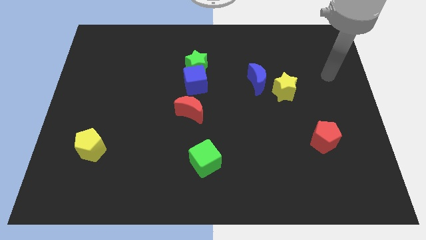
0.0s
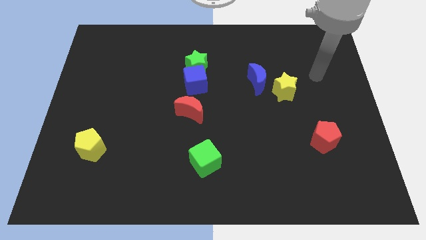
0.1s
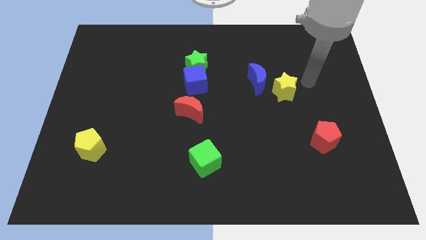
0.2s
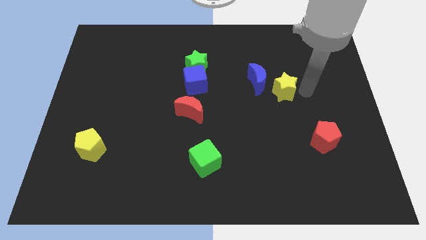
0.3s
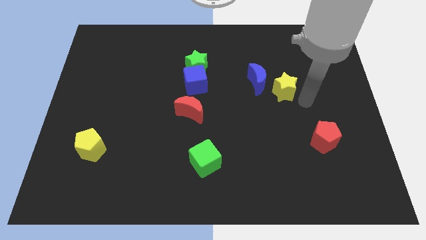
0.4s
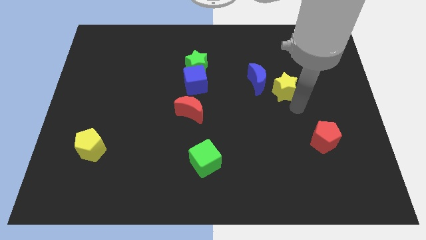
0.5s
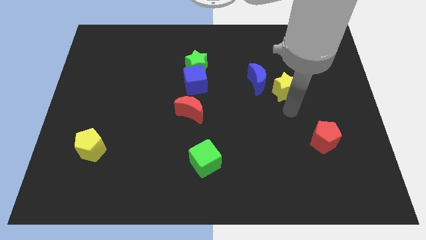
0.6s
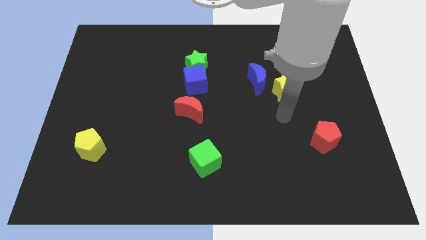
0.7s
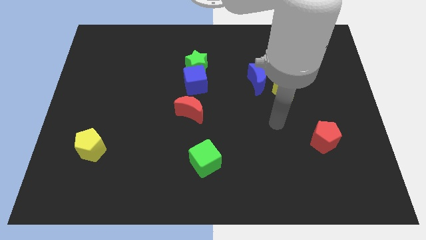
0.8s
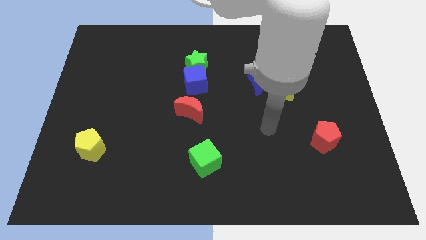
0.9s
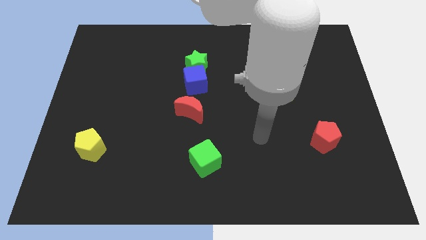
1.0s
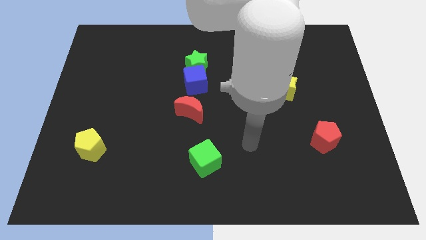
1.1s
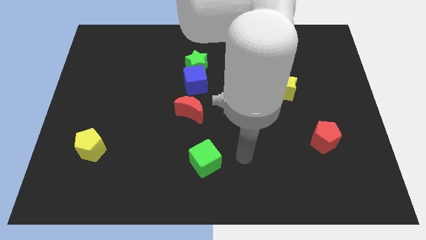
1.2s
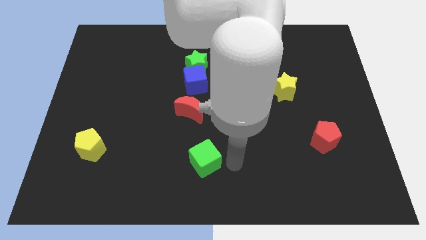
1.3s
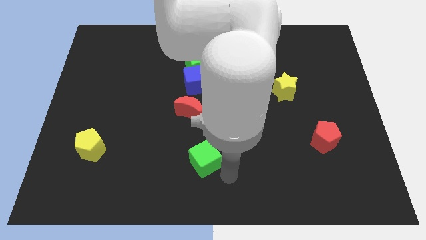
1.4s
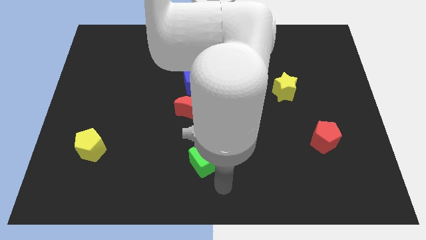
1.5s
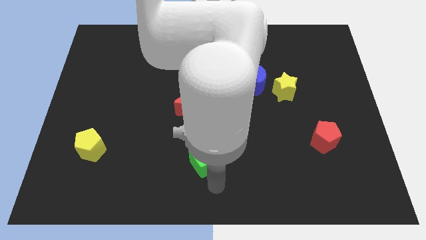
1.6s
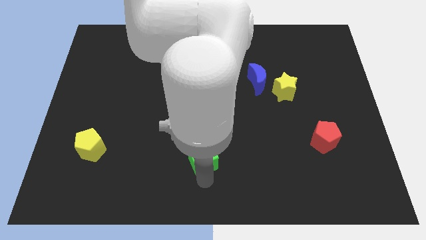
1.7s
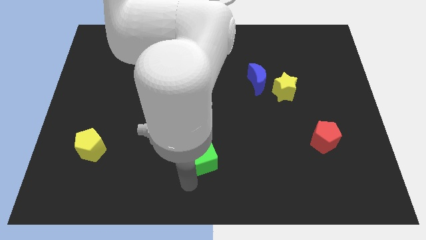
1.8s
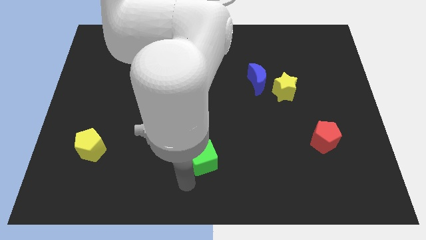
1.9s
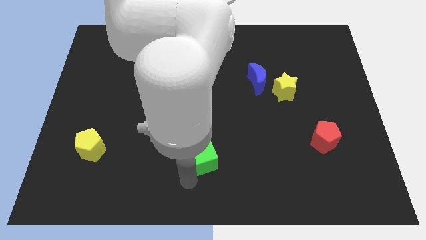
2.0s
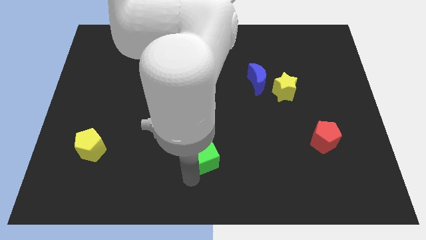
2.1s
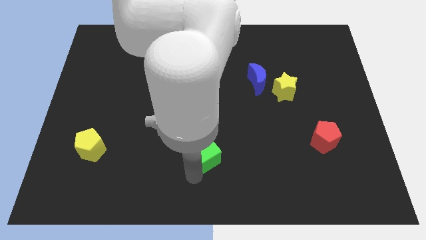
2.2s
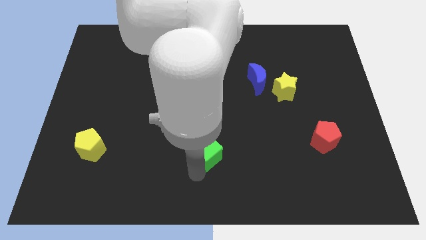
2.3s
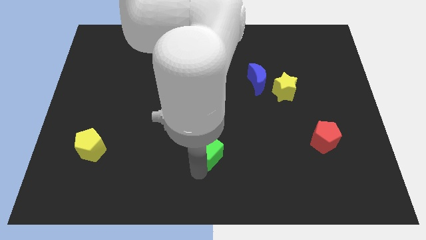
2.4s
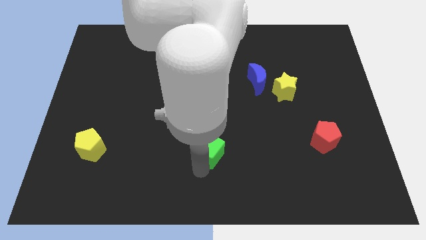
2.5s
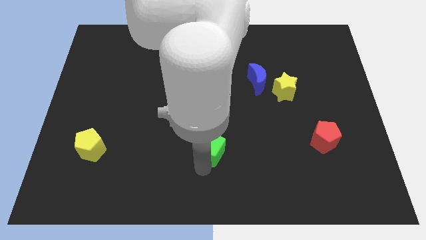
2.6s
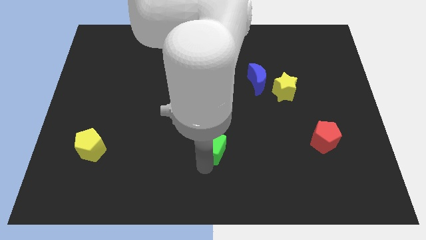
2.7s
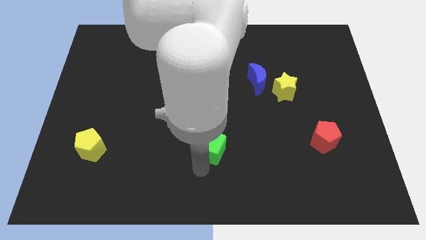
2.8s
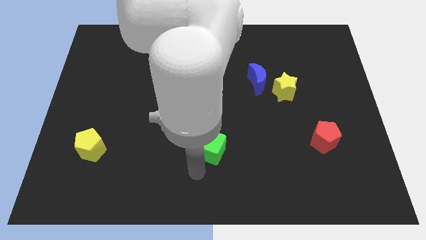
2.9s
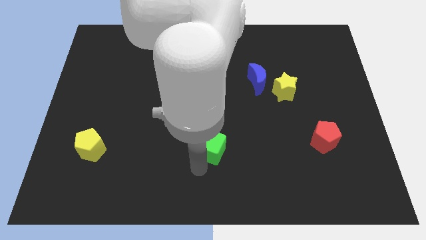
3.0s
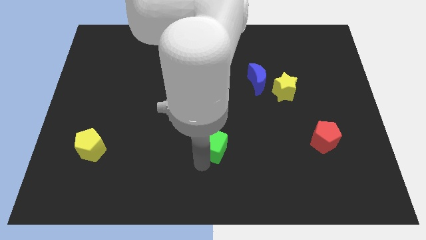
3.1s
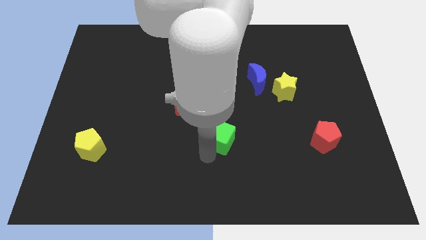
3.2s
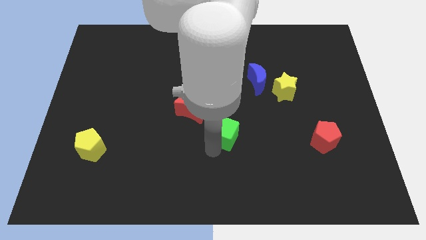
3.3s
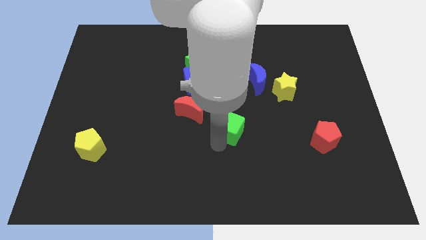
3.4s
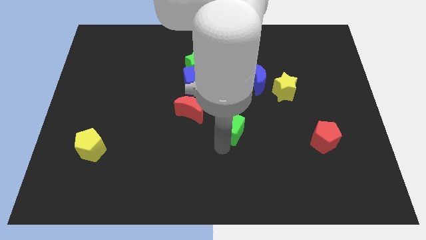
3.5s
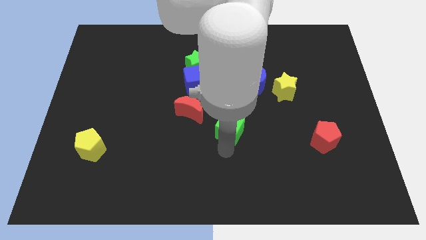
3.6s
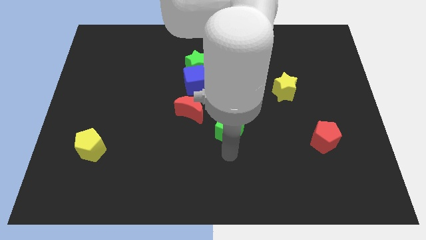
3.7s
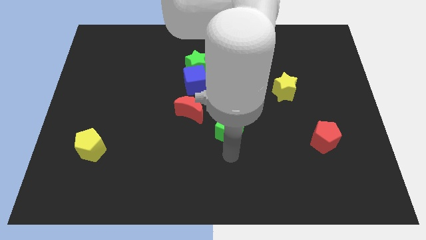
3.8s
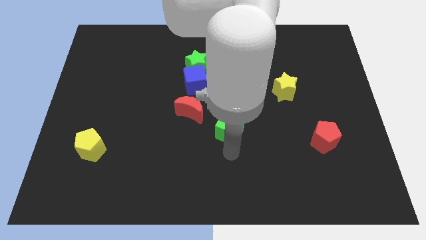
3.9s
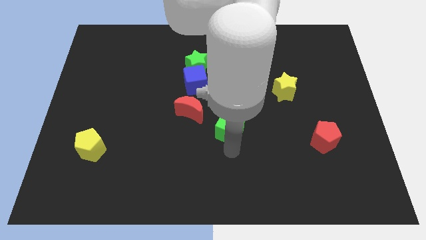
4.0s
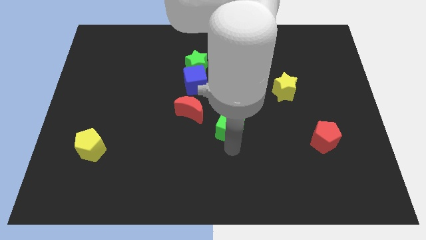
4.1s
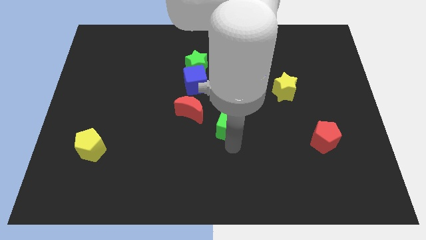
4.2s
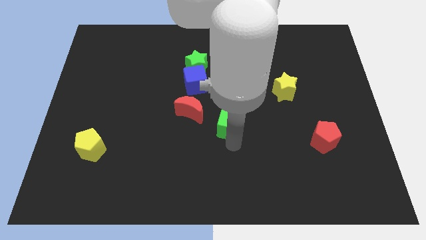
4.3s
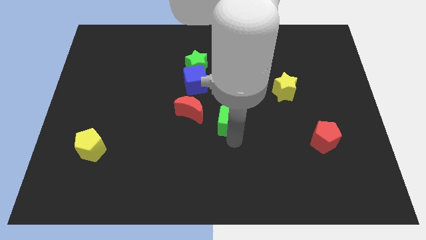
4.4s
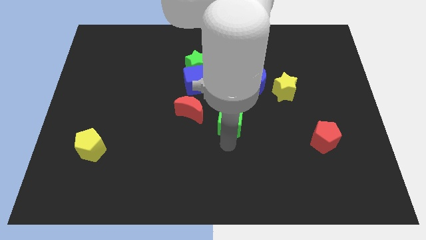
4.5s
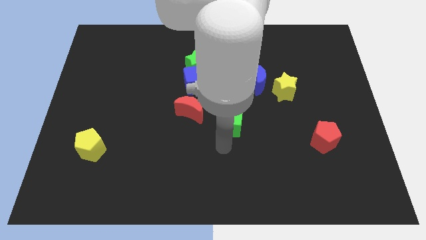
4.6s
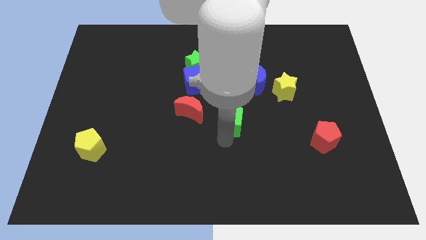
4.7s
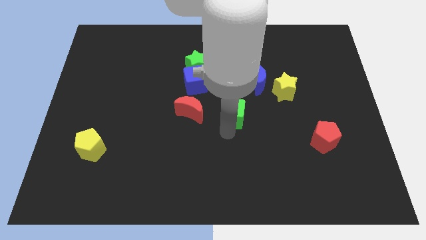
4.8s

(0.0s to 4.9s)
push the green cube to the bottom left side of the blue moon

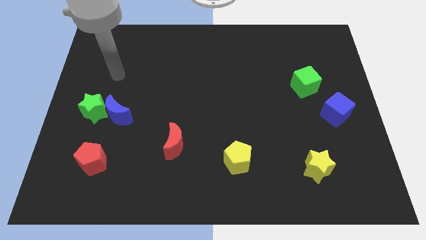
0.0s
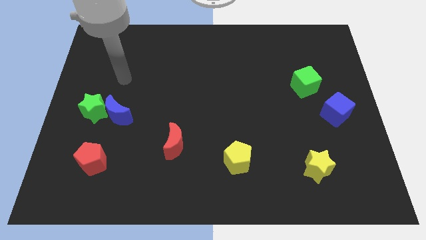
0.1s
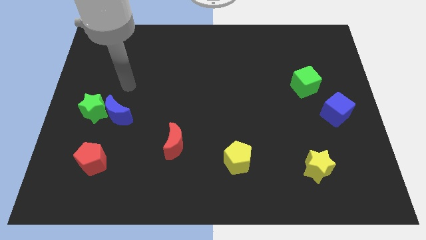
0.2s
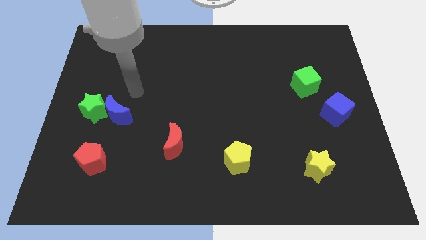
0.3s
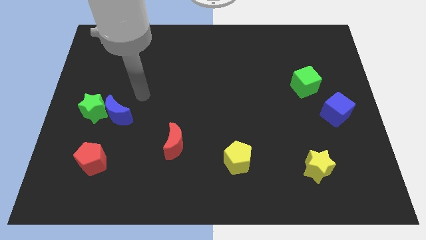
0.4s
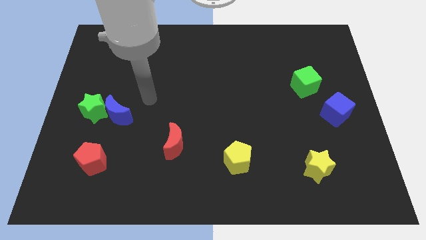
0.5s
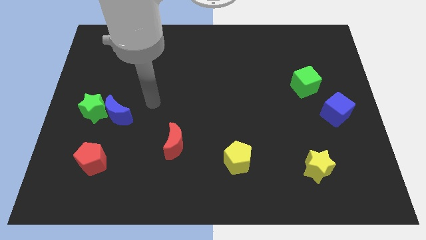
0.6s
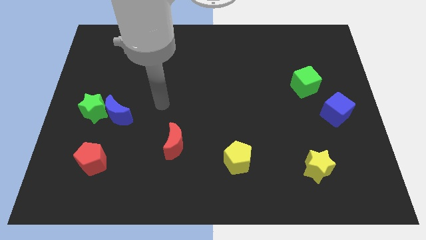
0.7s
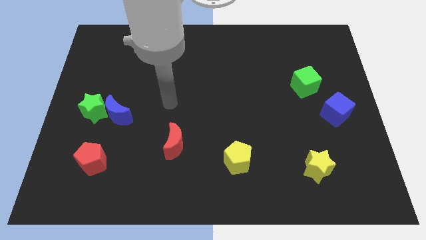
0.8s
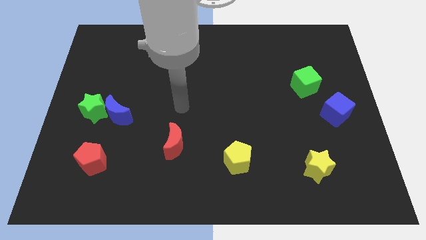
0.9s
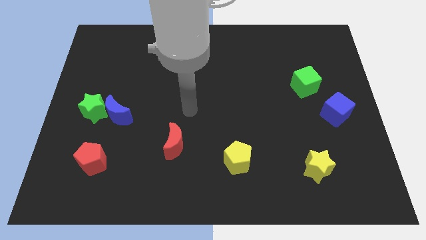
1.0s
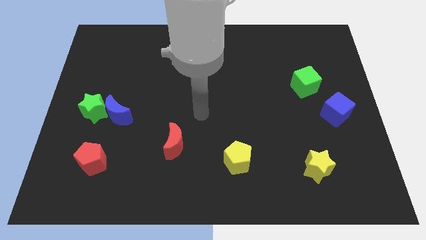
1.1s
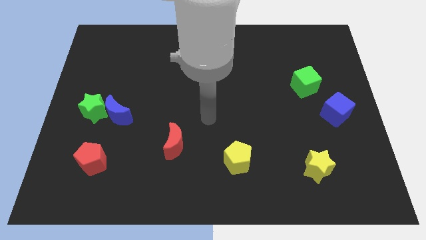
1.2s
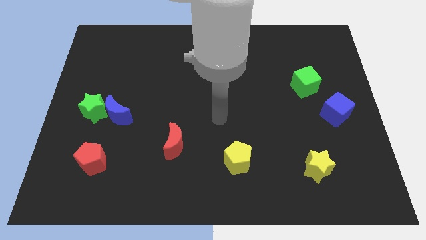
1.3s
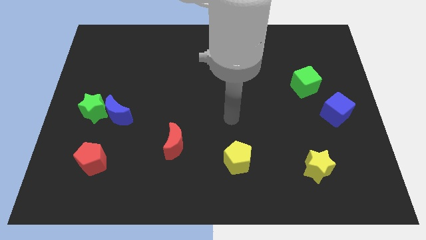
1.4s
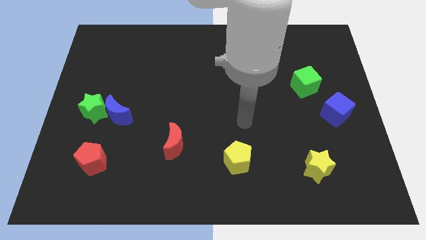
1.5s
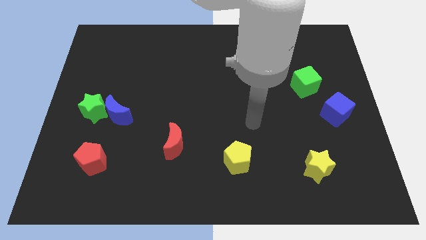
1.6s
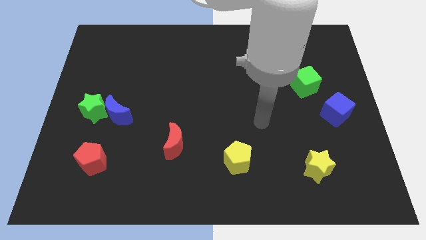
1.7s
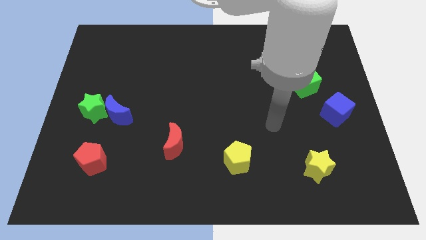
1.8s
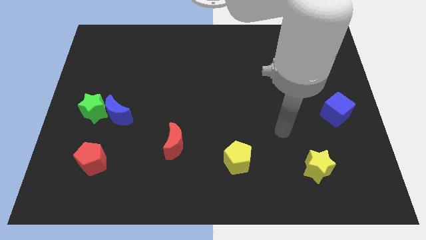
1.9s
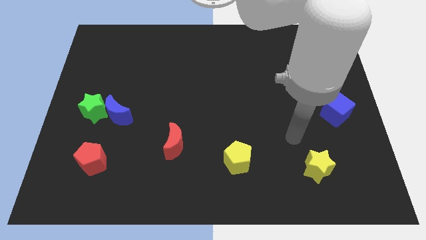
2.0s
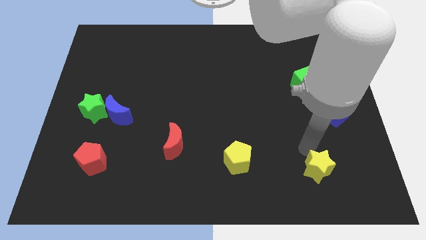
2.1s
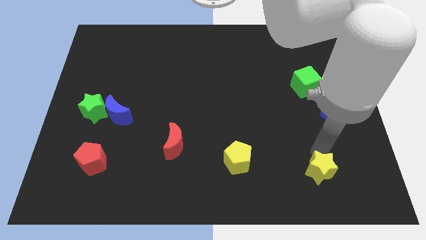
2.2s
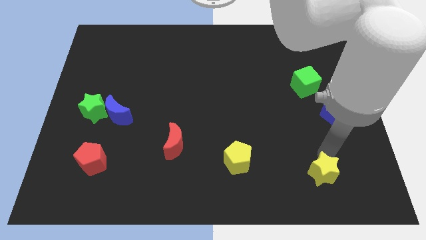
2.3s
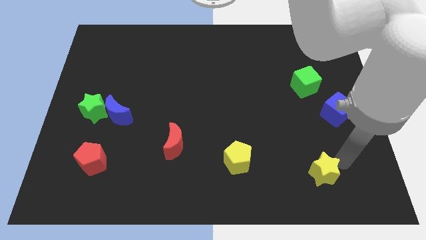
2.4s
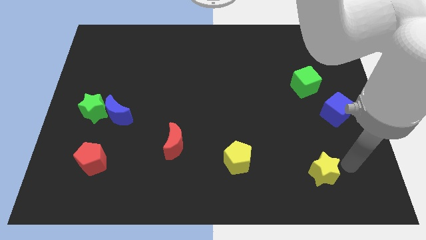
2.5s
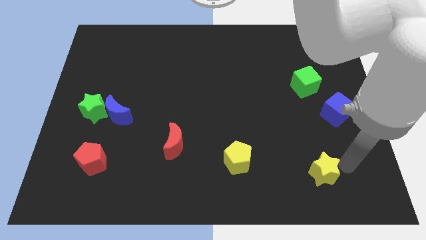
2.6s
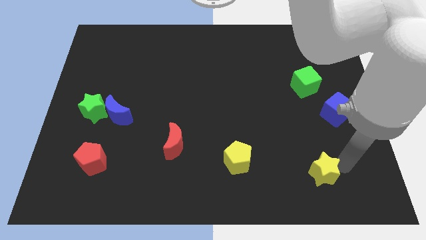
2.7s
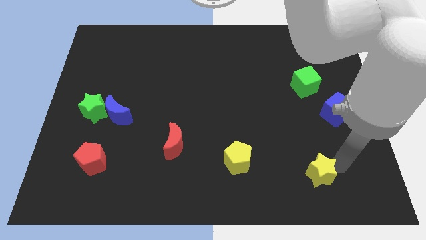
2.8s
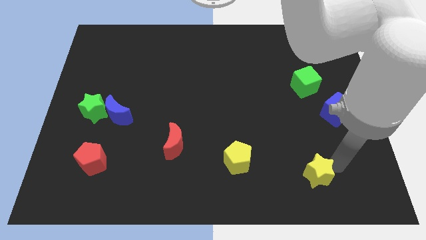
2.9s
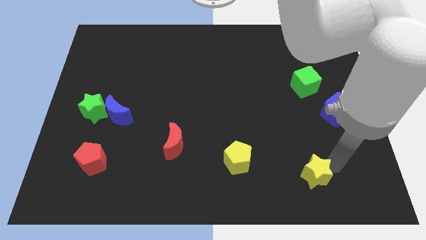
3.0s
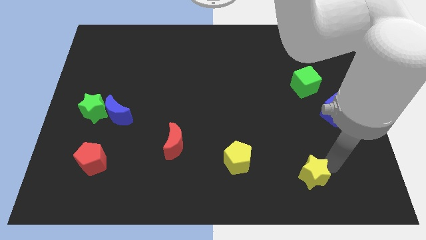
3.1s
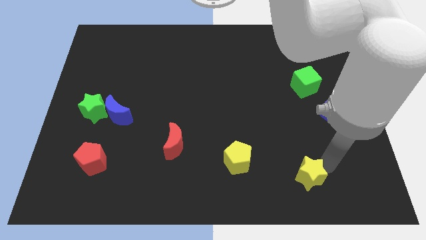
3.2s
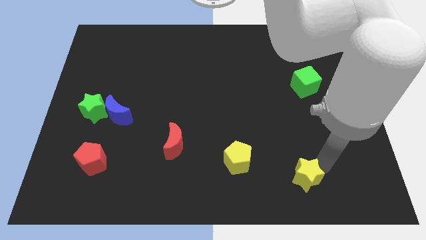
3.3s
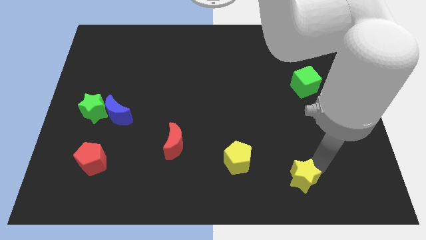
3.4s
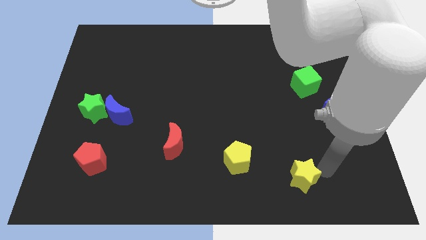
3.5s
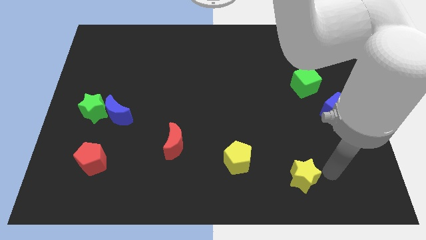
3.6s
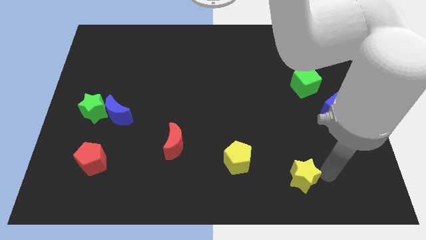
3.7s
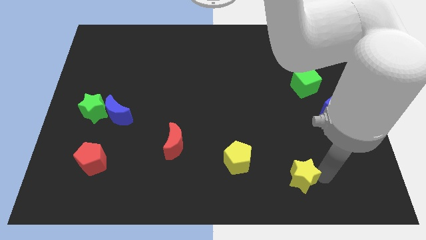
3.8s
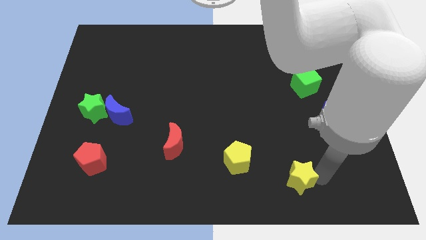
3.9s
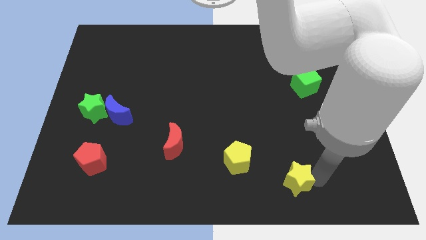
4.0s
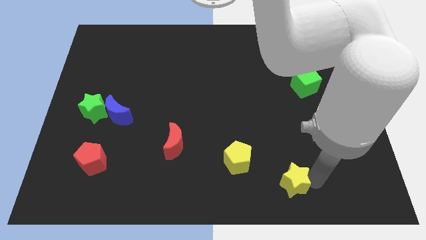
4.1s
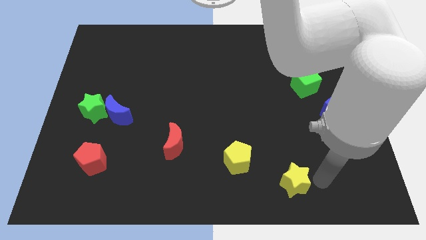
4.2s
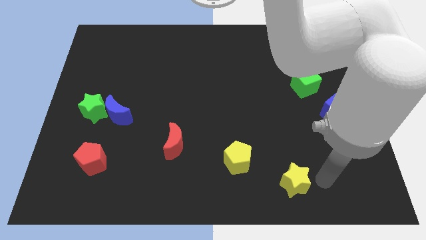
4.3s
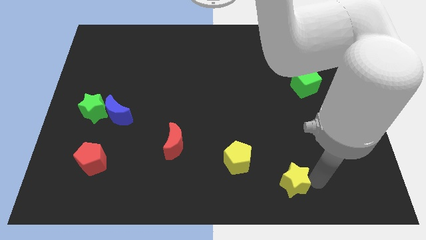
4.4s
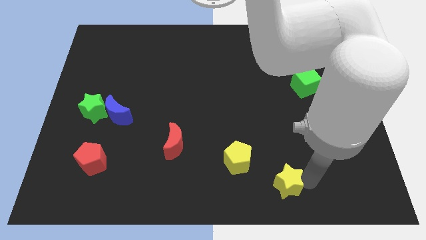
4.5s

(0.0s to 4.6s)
put the yellow star to the bottom right side of the yellow pentagon
